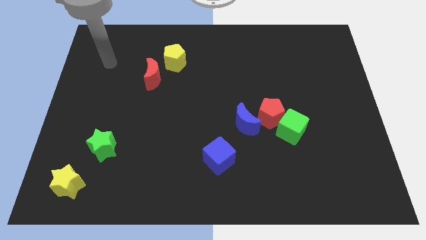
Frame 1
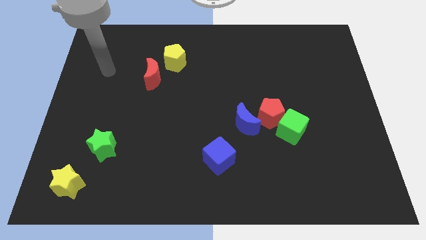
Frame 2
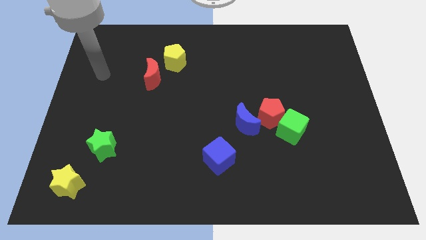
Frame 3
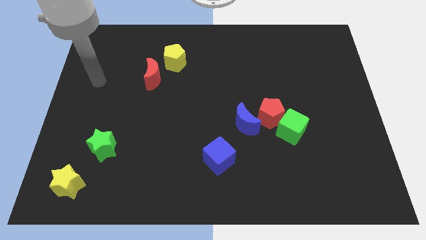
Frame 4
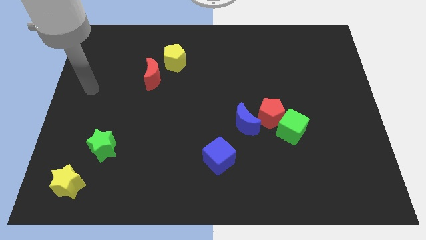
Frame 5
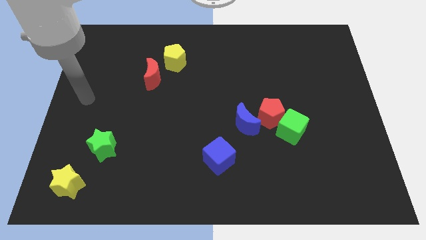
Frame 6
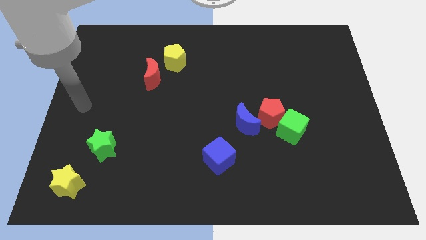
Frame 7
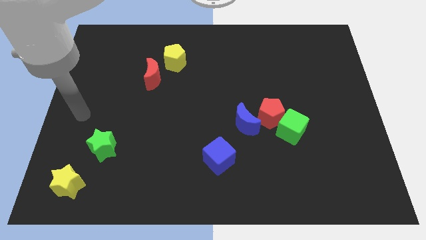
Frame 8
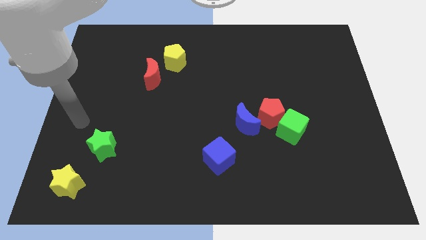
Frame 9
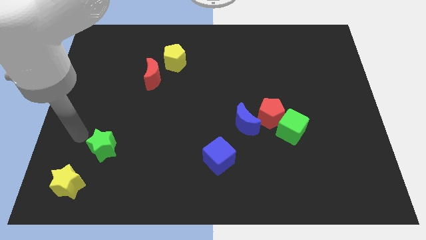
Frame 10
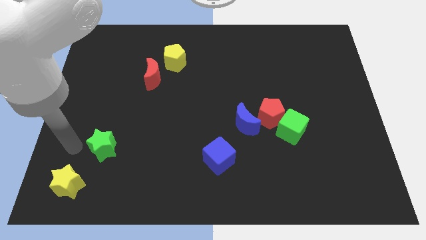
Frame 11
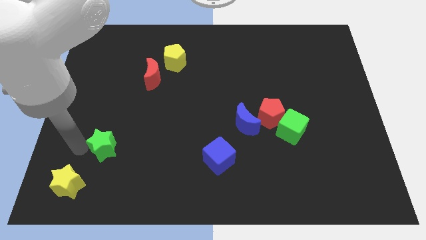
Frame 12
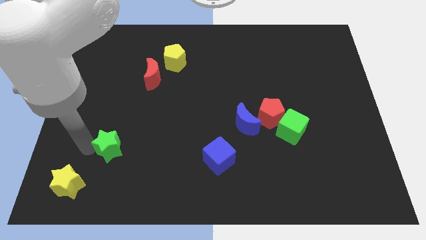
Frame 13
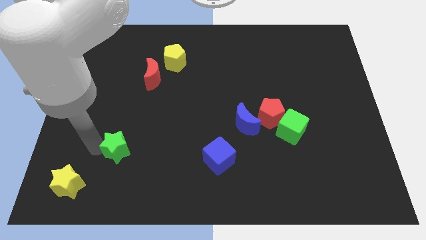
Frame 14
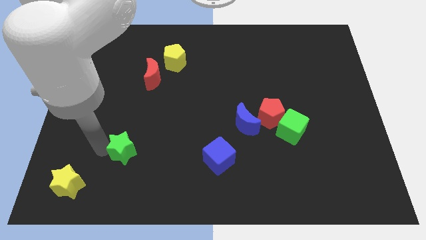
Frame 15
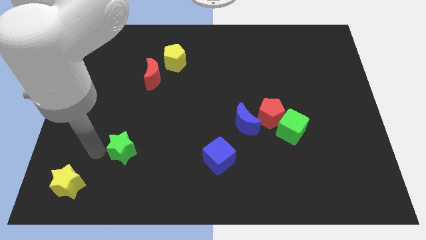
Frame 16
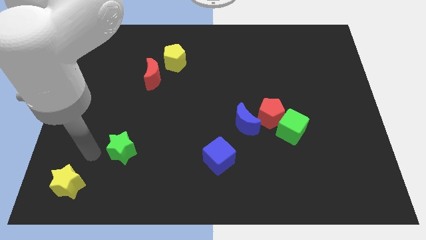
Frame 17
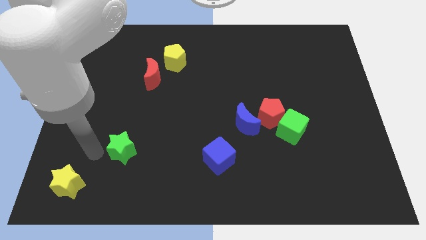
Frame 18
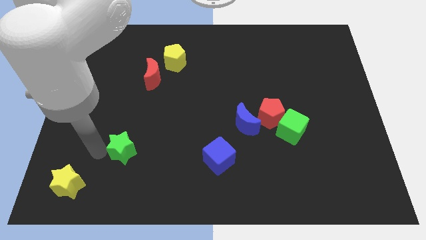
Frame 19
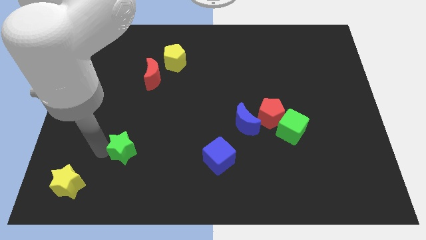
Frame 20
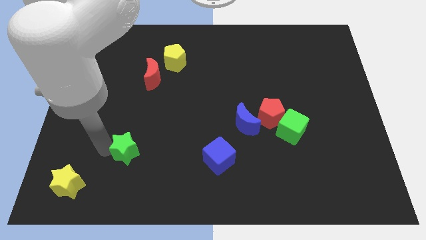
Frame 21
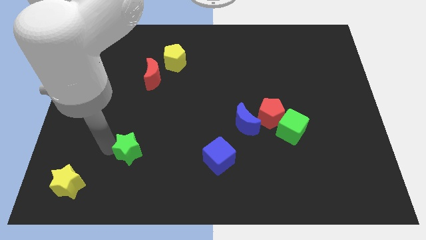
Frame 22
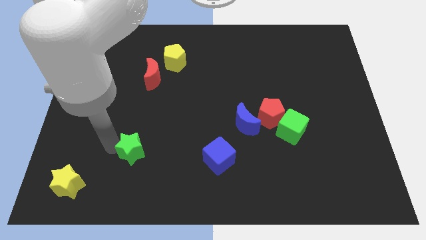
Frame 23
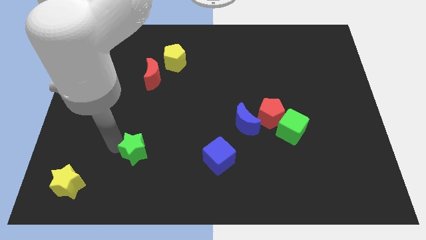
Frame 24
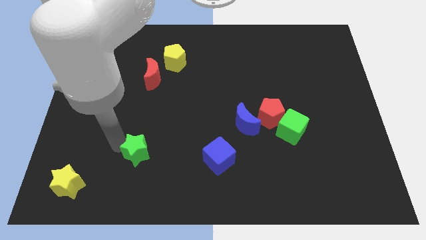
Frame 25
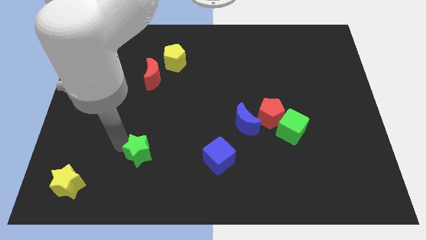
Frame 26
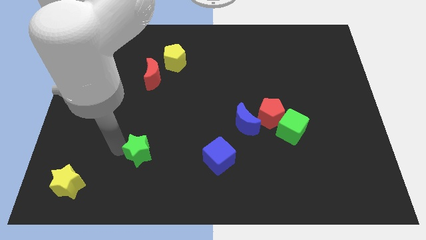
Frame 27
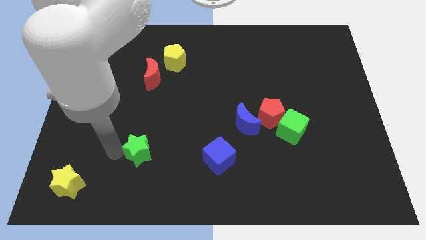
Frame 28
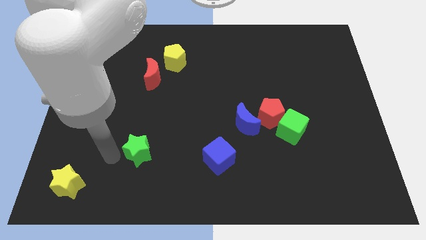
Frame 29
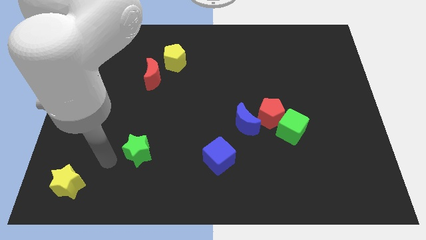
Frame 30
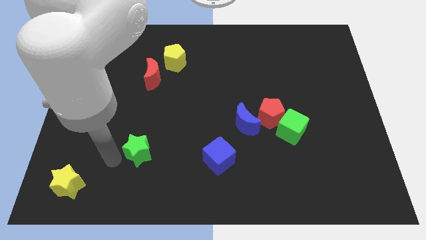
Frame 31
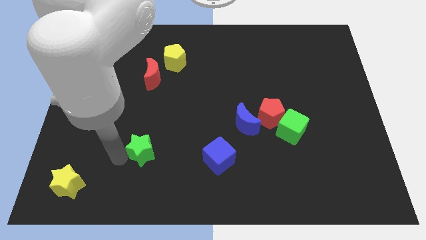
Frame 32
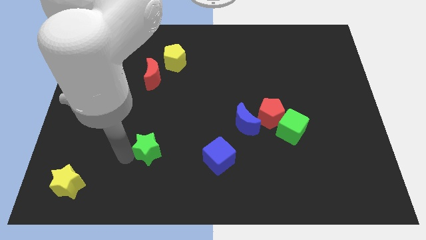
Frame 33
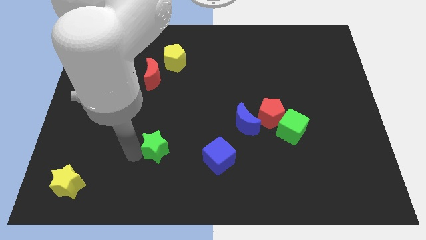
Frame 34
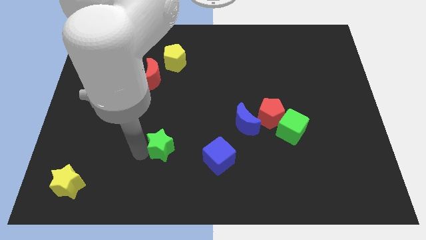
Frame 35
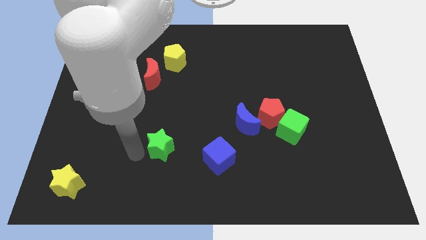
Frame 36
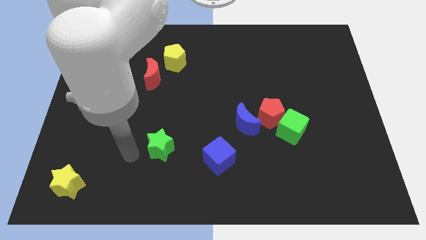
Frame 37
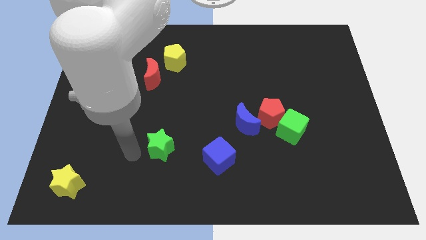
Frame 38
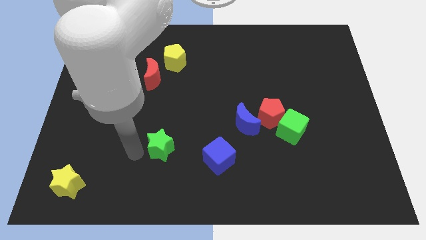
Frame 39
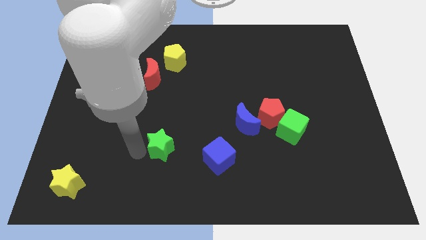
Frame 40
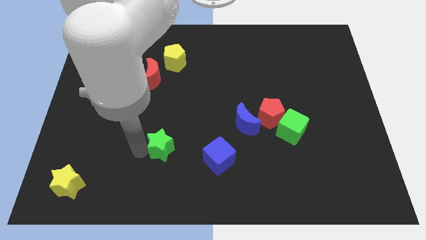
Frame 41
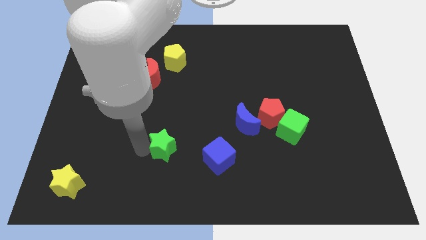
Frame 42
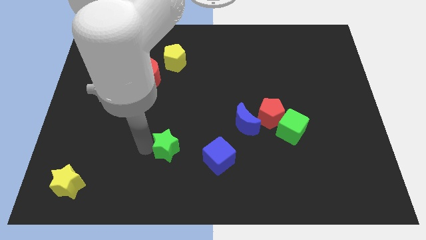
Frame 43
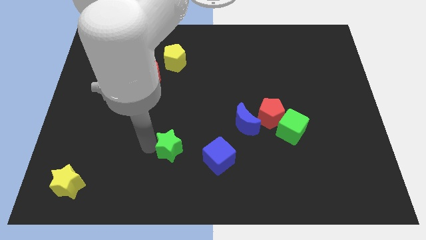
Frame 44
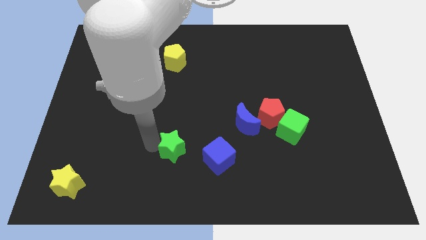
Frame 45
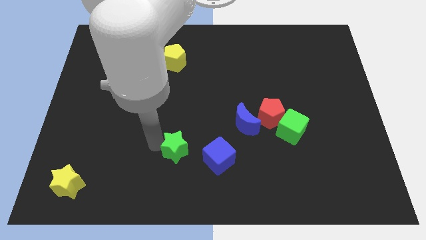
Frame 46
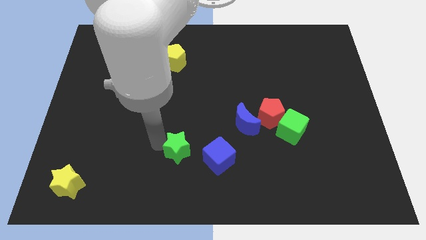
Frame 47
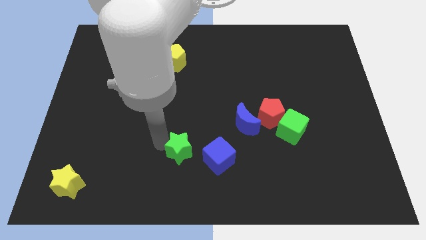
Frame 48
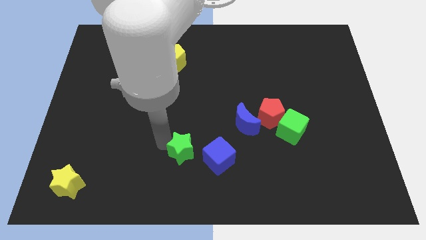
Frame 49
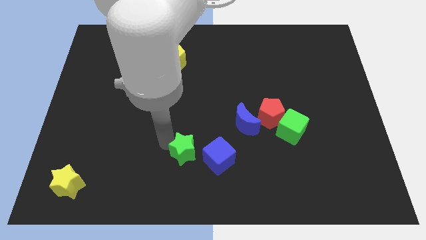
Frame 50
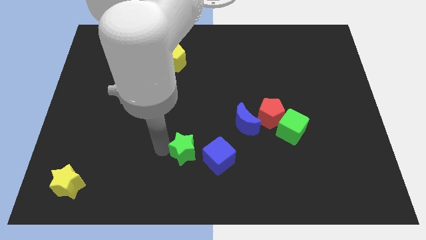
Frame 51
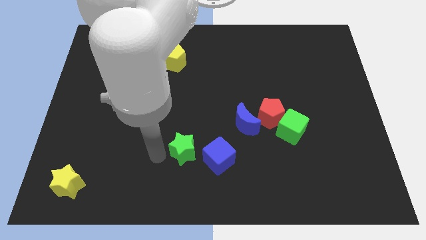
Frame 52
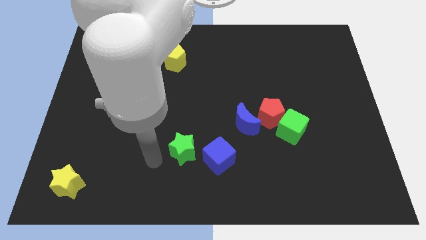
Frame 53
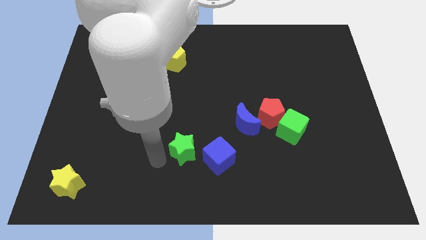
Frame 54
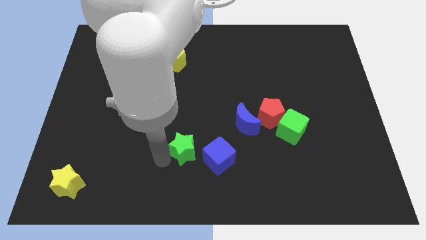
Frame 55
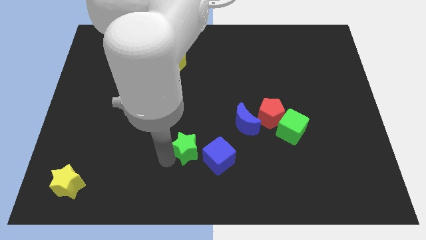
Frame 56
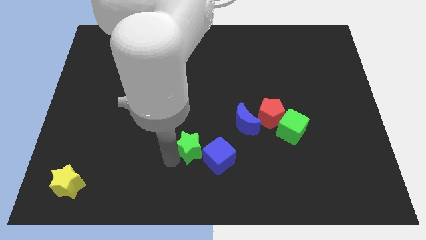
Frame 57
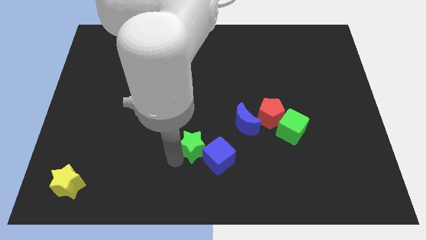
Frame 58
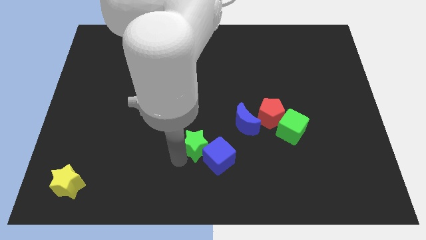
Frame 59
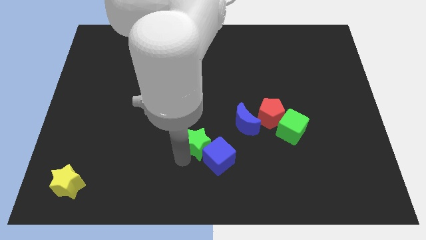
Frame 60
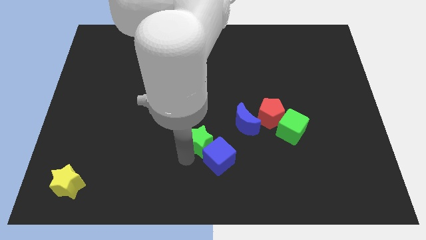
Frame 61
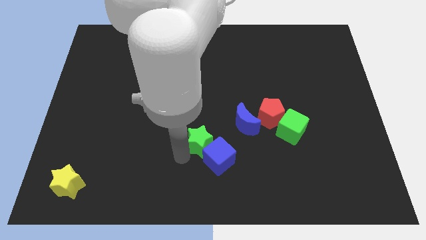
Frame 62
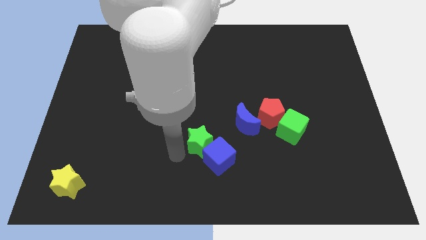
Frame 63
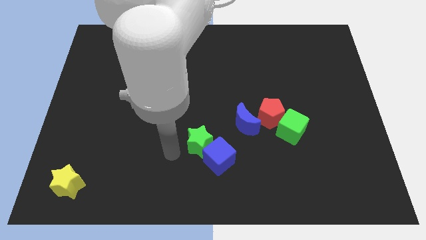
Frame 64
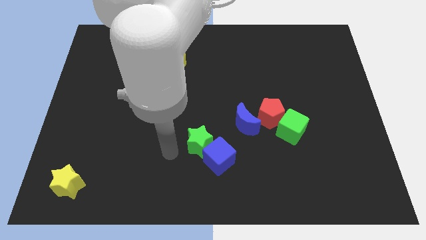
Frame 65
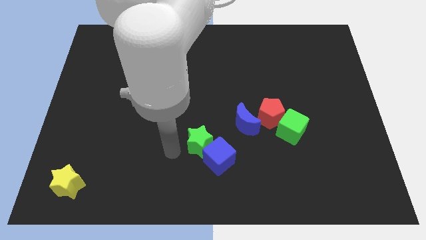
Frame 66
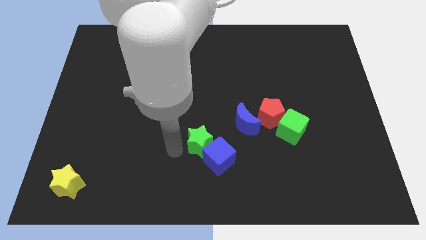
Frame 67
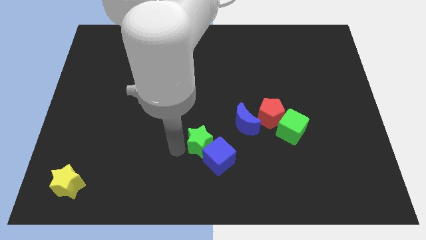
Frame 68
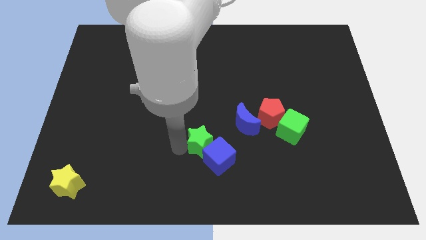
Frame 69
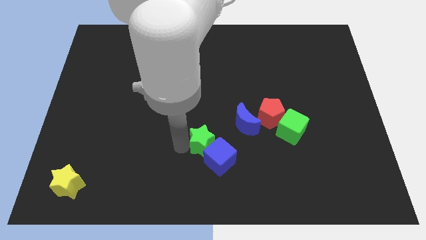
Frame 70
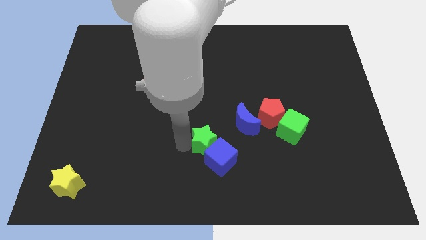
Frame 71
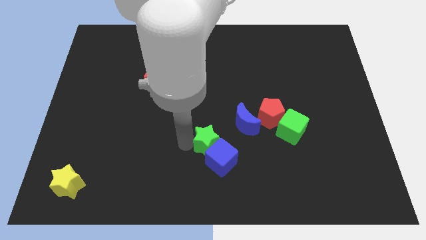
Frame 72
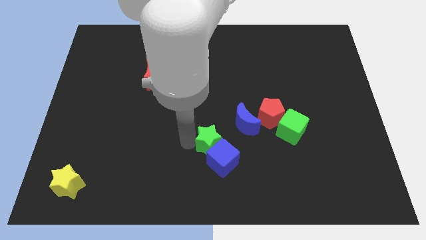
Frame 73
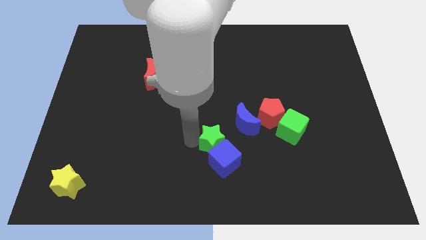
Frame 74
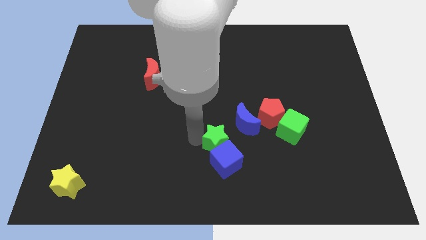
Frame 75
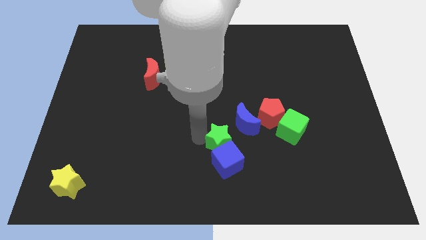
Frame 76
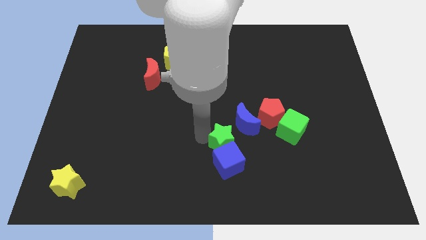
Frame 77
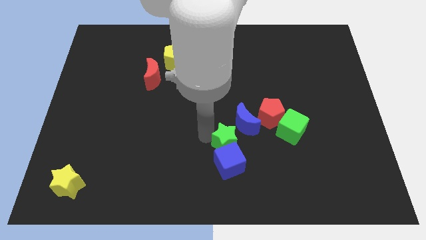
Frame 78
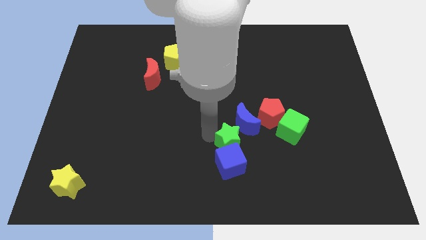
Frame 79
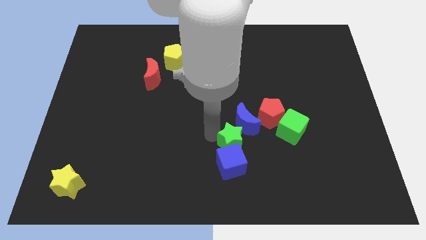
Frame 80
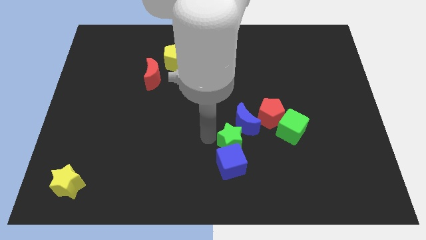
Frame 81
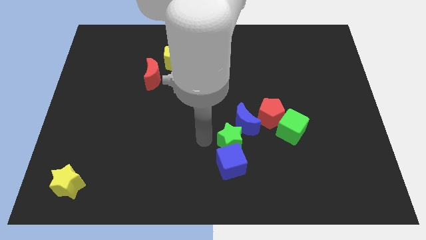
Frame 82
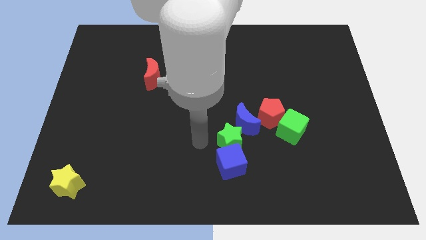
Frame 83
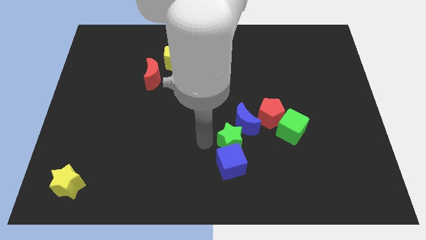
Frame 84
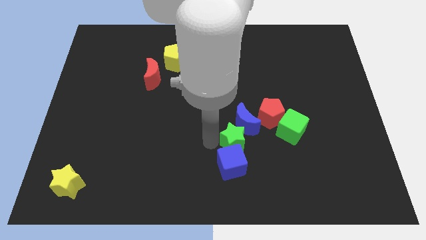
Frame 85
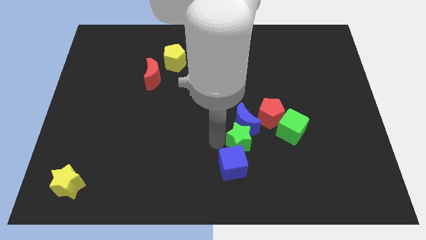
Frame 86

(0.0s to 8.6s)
move the green star to the bottom right of the blue moon
